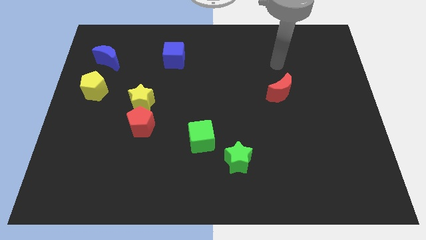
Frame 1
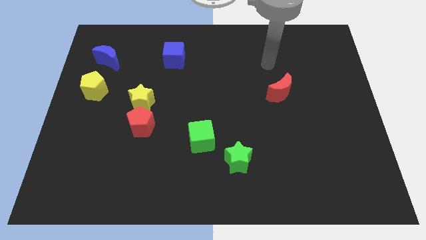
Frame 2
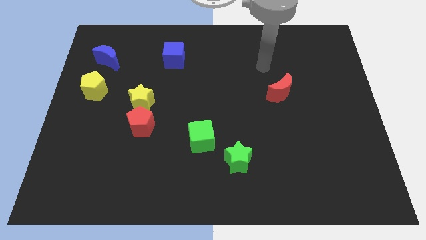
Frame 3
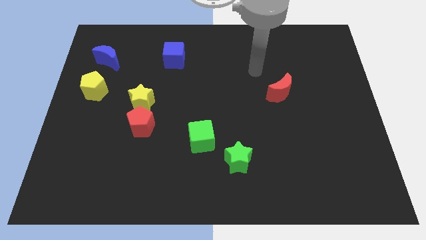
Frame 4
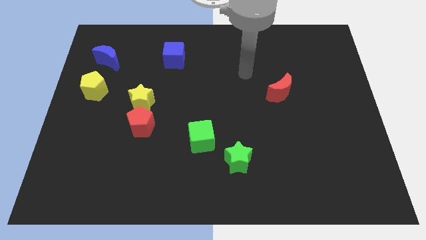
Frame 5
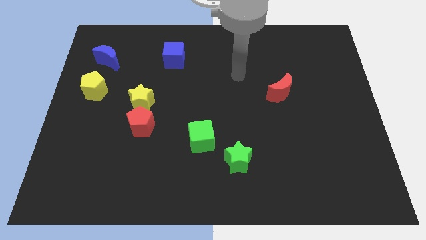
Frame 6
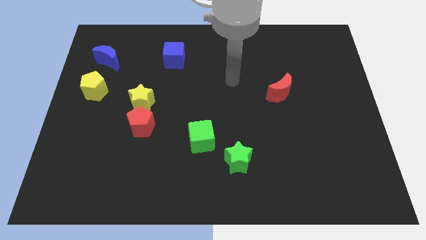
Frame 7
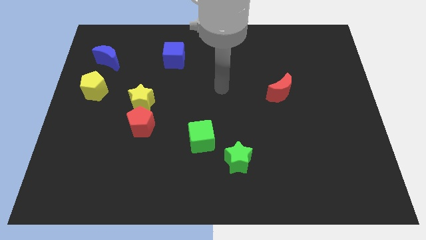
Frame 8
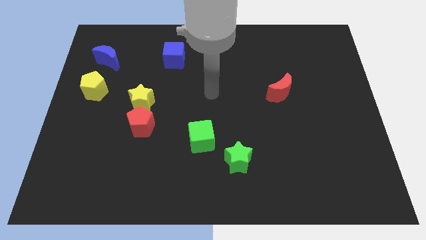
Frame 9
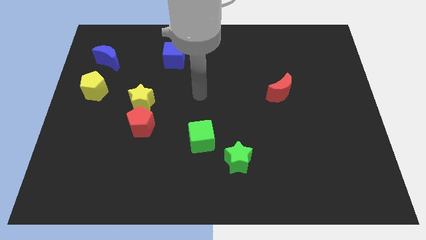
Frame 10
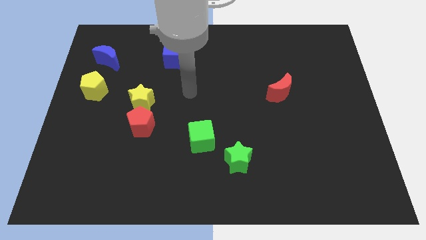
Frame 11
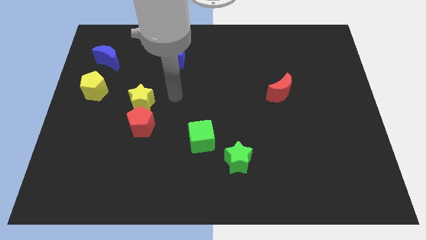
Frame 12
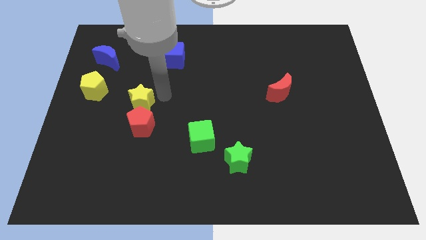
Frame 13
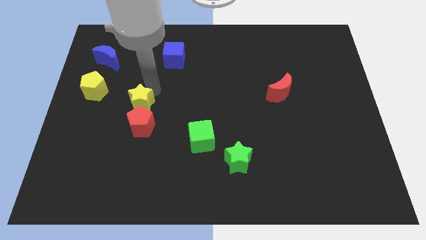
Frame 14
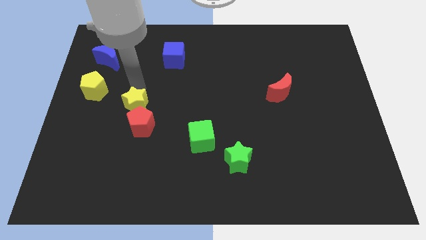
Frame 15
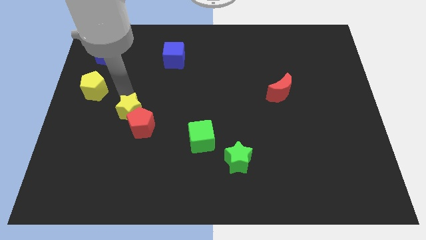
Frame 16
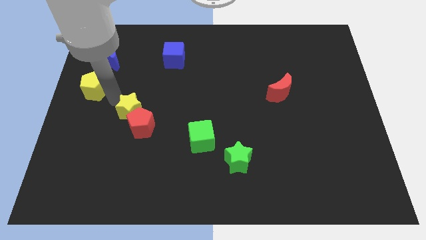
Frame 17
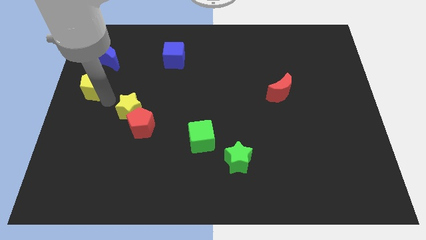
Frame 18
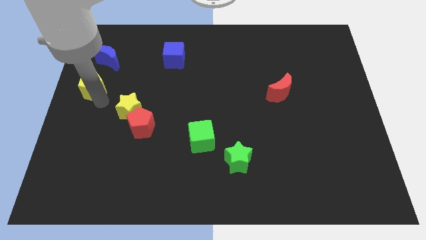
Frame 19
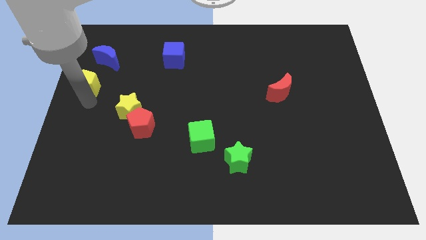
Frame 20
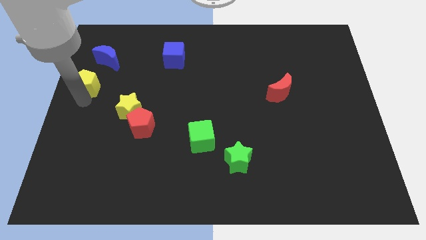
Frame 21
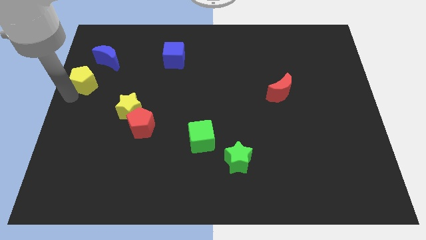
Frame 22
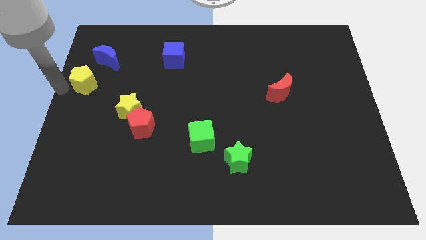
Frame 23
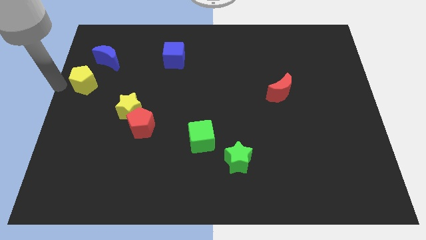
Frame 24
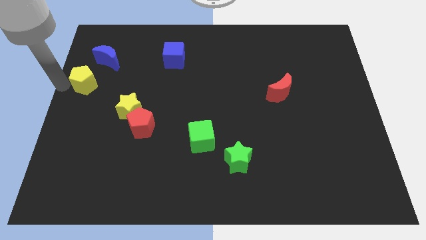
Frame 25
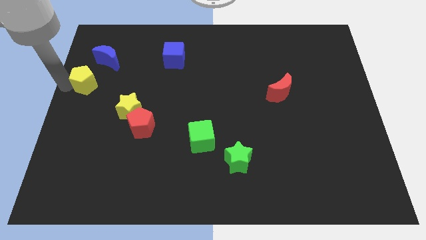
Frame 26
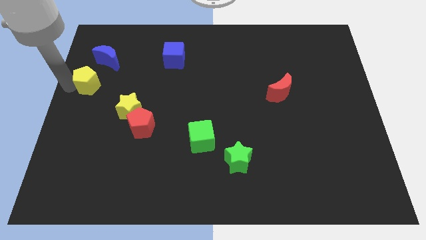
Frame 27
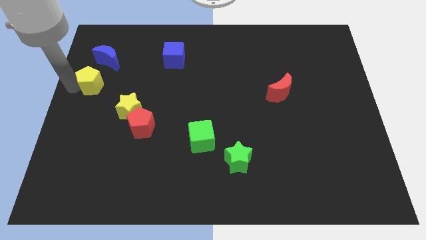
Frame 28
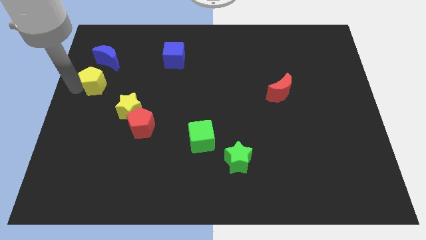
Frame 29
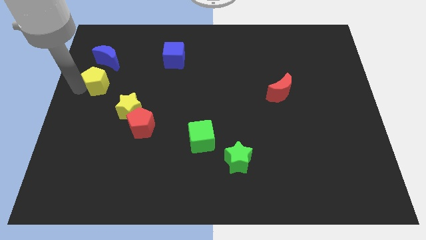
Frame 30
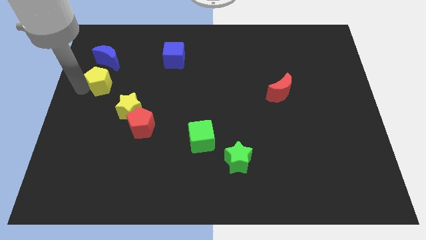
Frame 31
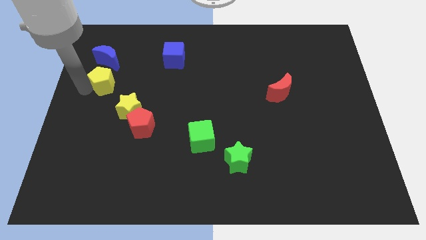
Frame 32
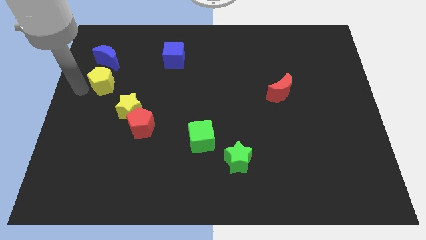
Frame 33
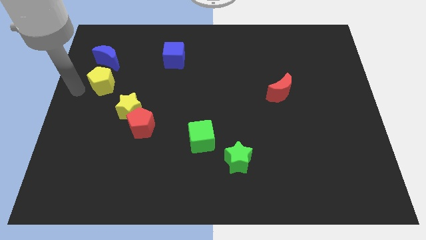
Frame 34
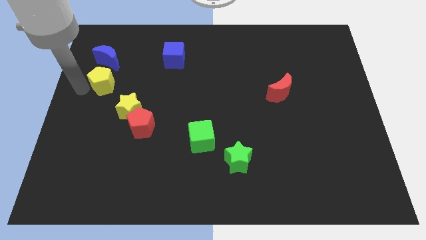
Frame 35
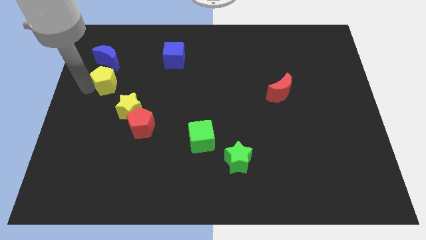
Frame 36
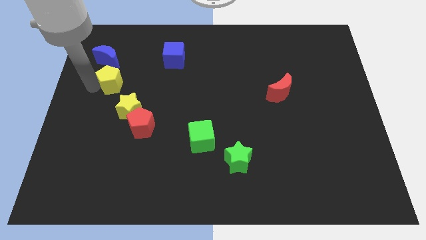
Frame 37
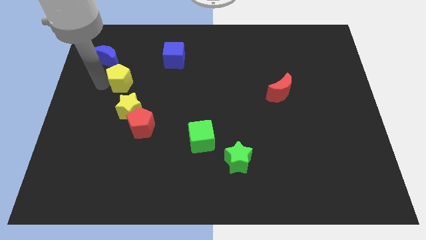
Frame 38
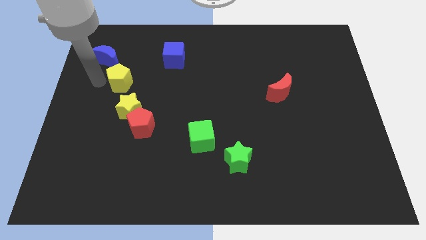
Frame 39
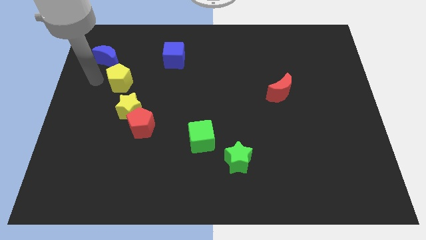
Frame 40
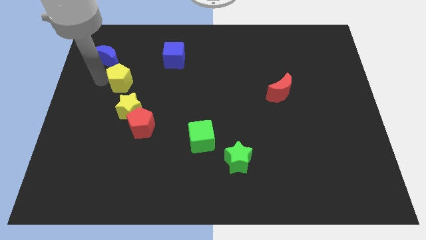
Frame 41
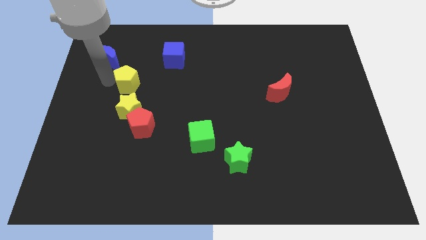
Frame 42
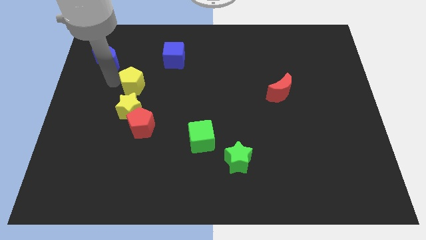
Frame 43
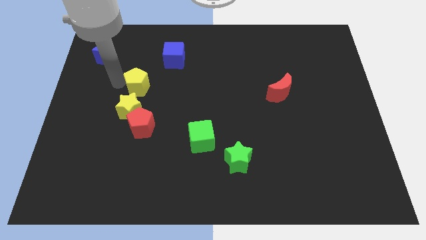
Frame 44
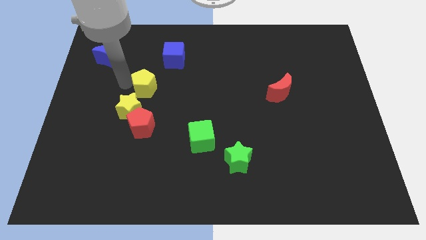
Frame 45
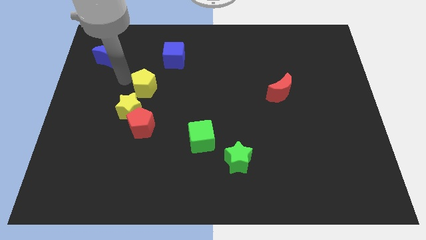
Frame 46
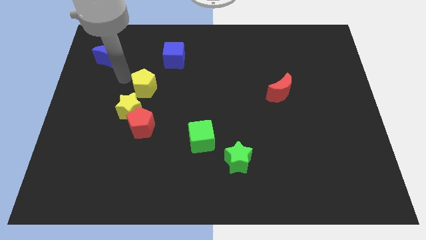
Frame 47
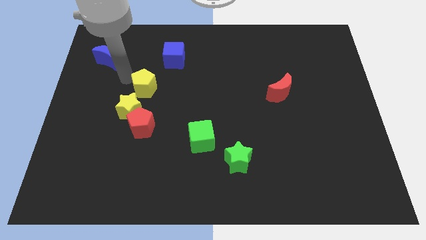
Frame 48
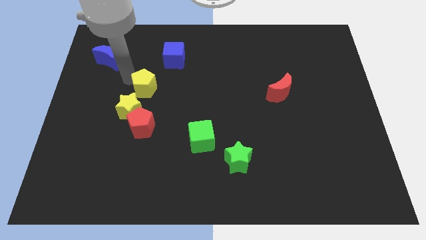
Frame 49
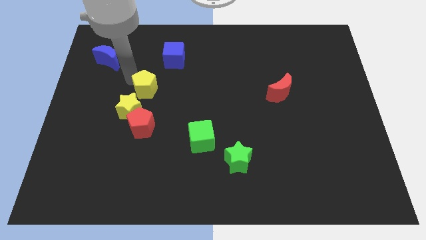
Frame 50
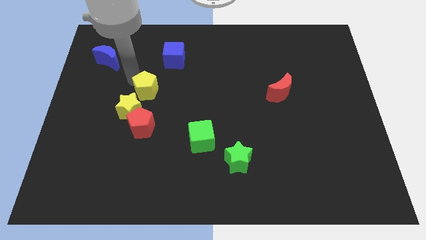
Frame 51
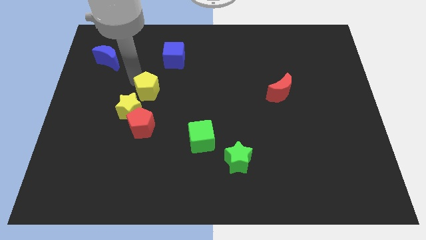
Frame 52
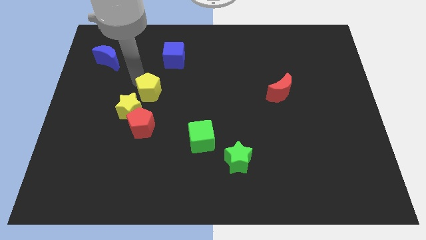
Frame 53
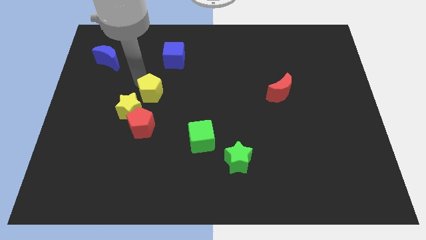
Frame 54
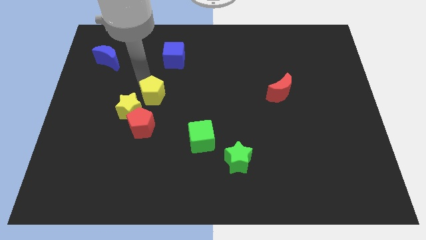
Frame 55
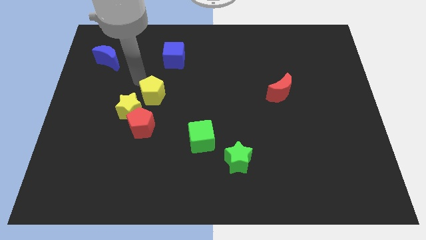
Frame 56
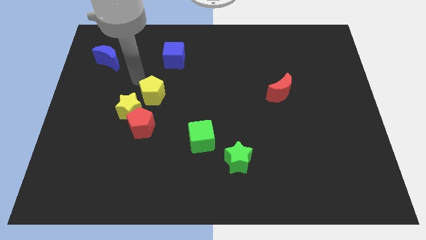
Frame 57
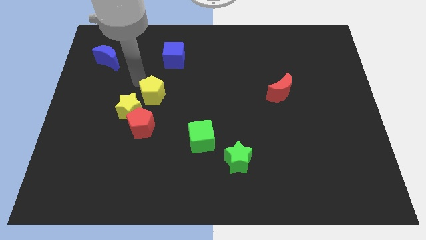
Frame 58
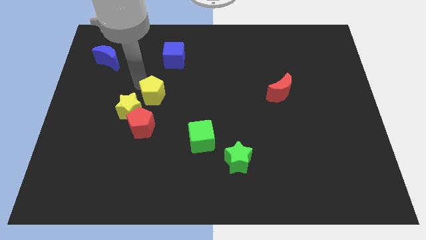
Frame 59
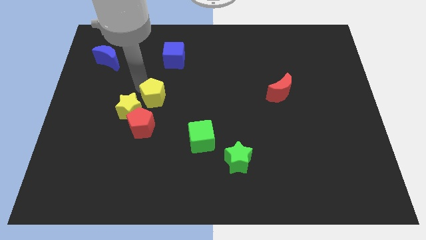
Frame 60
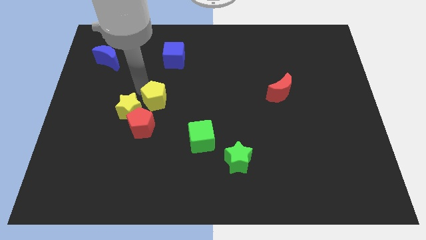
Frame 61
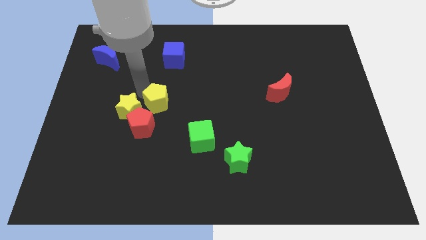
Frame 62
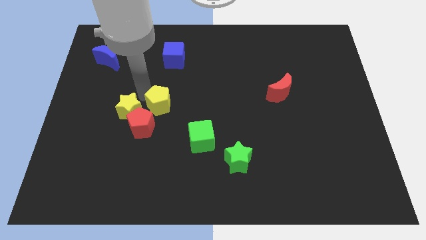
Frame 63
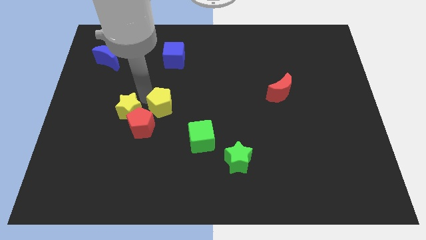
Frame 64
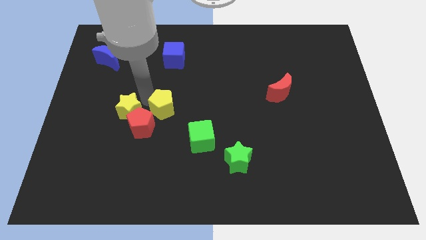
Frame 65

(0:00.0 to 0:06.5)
move the yellow pentagon to the top left side of the green cube
